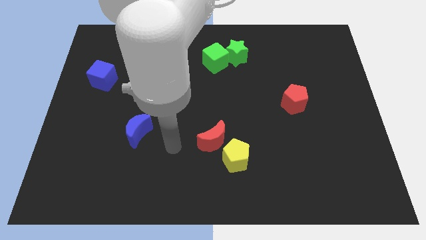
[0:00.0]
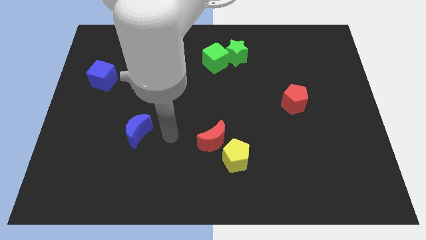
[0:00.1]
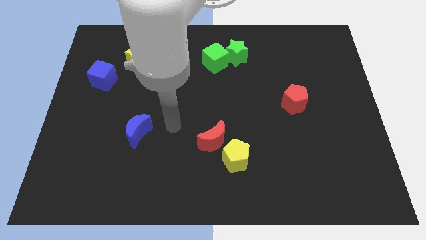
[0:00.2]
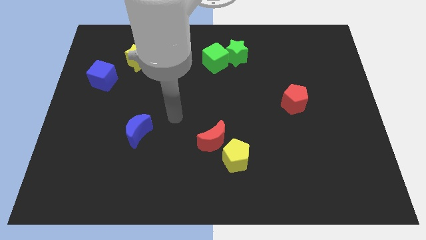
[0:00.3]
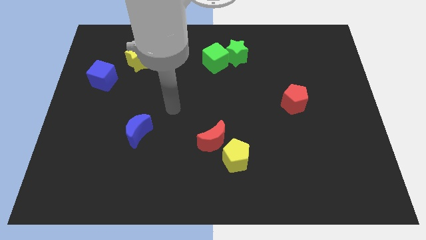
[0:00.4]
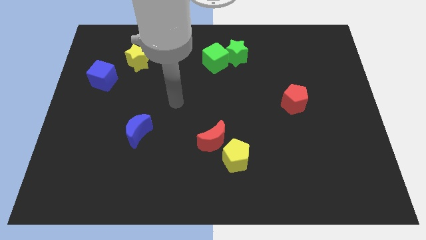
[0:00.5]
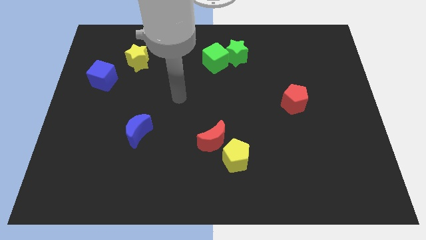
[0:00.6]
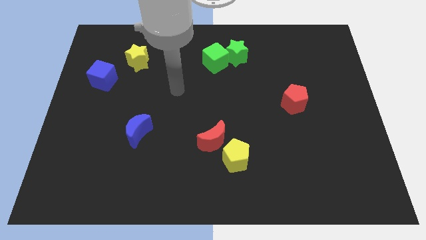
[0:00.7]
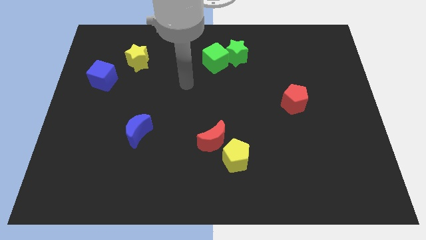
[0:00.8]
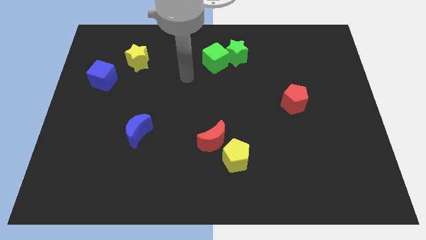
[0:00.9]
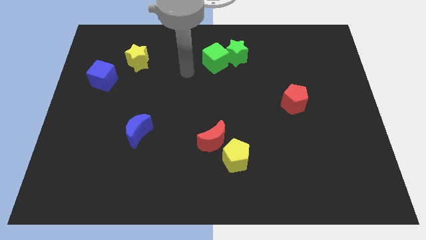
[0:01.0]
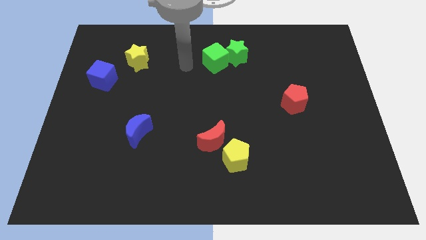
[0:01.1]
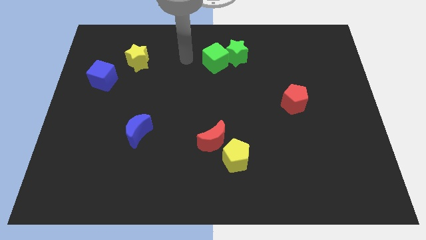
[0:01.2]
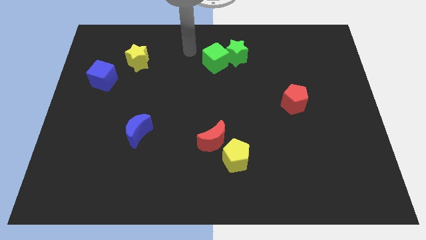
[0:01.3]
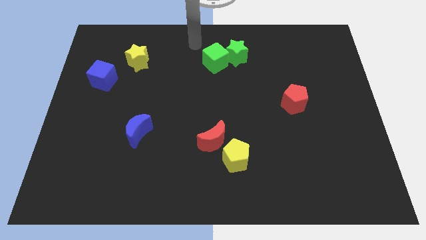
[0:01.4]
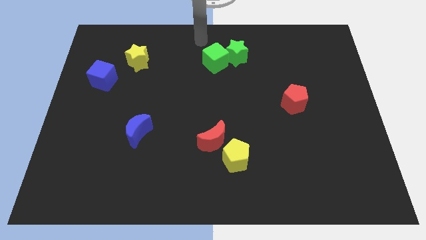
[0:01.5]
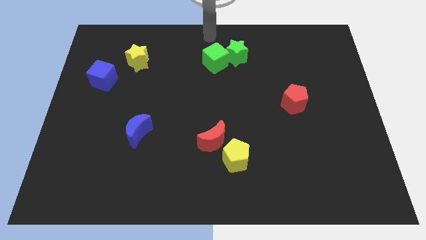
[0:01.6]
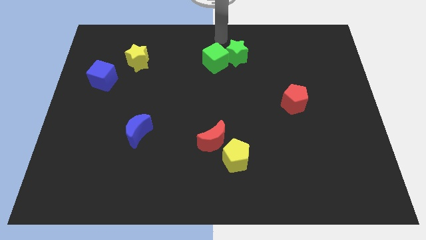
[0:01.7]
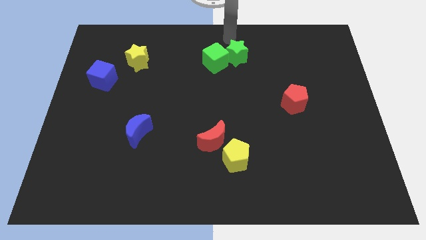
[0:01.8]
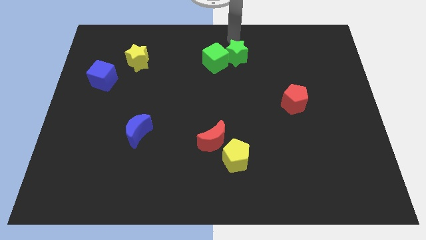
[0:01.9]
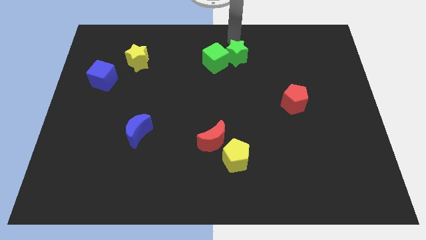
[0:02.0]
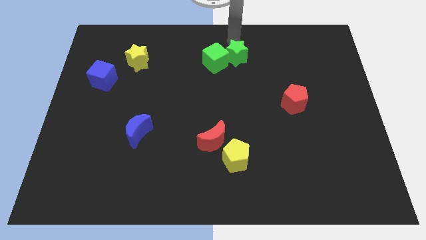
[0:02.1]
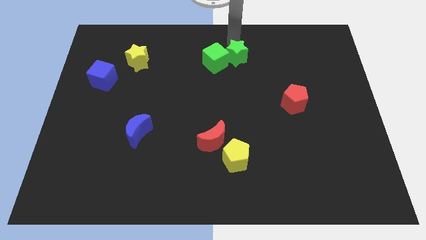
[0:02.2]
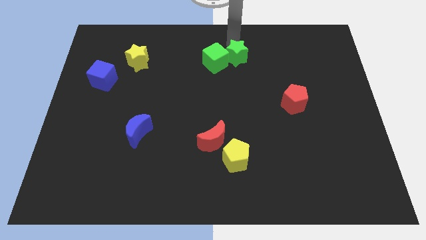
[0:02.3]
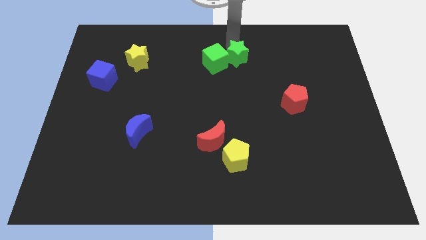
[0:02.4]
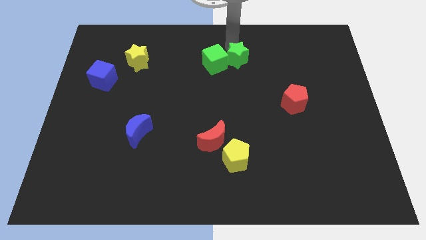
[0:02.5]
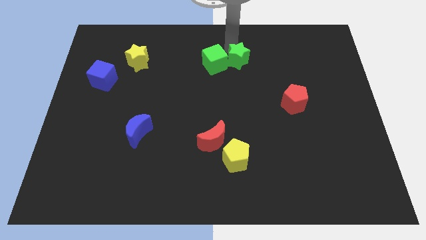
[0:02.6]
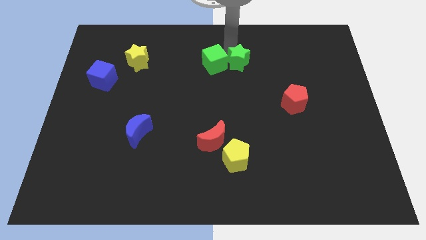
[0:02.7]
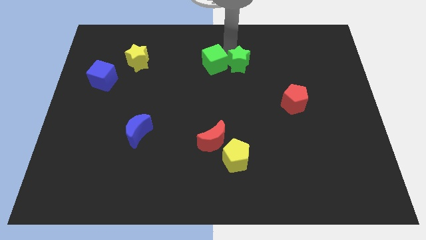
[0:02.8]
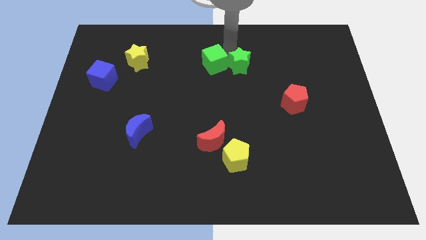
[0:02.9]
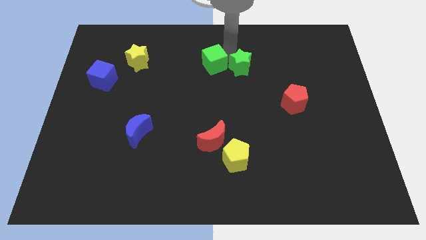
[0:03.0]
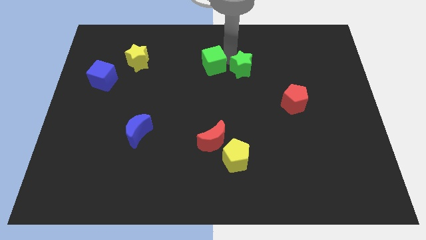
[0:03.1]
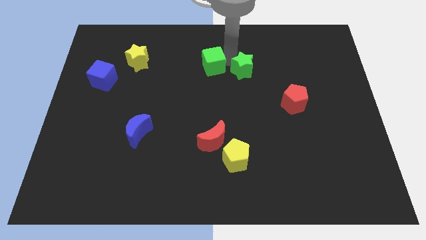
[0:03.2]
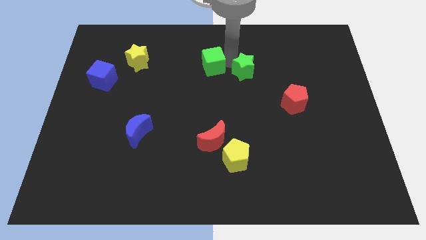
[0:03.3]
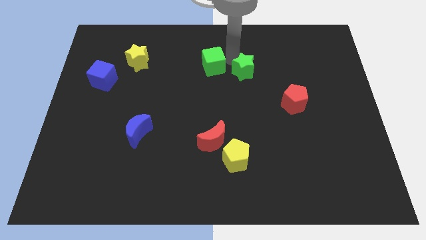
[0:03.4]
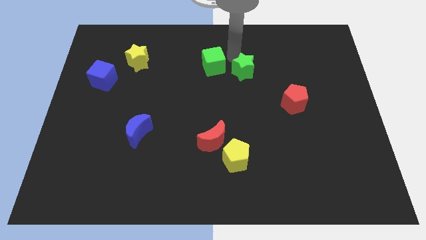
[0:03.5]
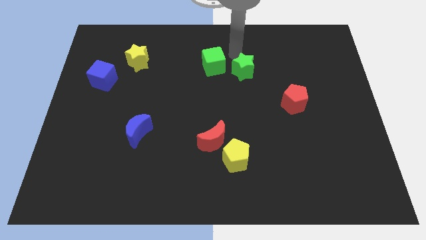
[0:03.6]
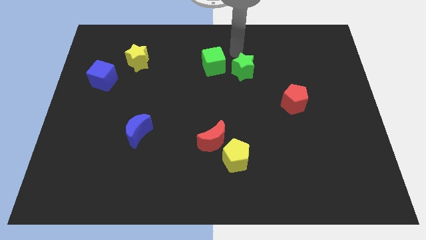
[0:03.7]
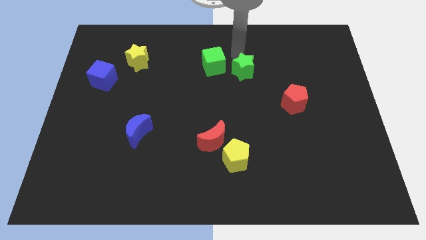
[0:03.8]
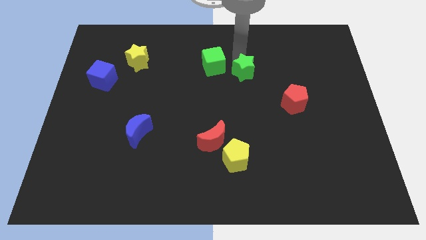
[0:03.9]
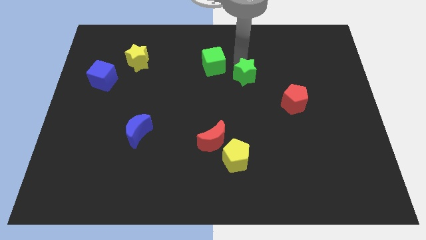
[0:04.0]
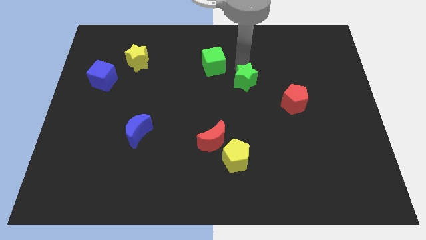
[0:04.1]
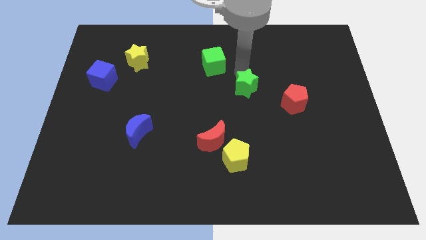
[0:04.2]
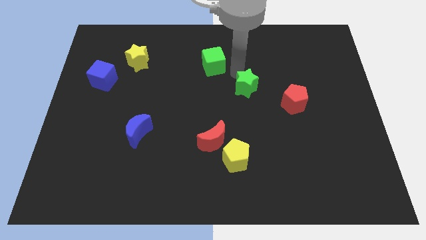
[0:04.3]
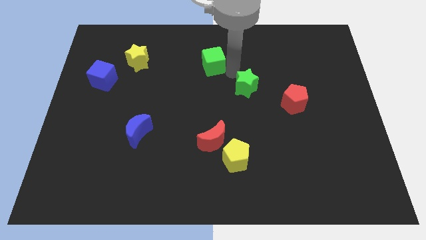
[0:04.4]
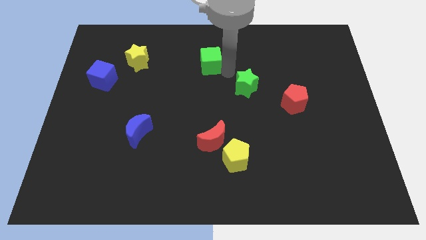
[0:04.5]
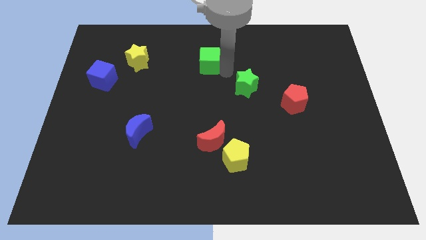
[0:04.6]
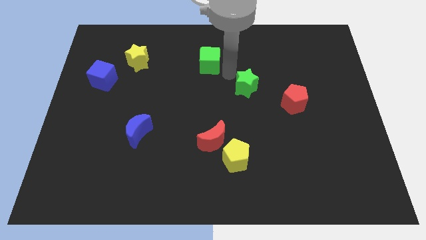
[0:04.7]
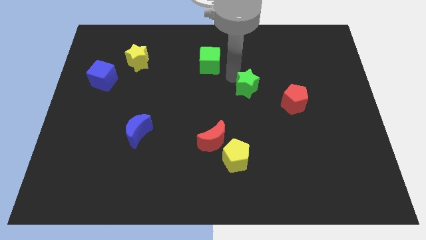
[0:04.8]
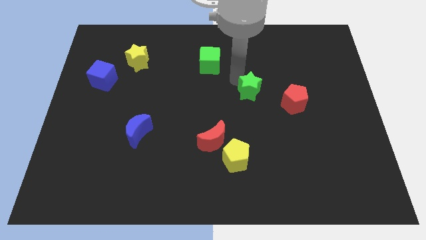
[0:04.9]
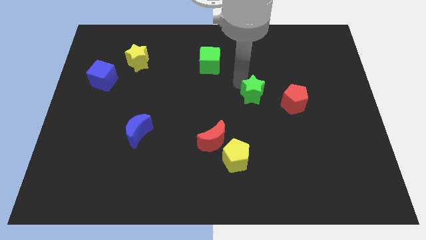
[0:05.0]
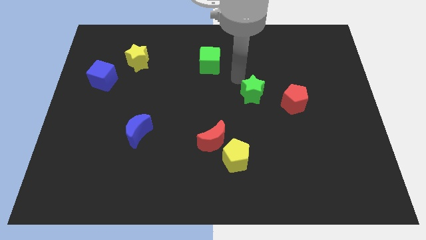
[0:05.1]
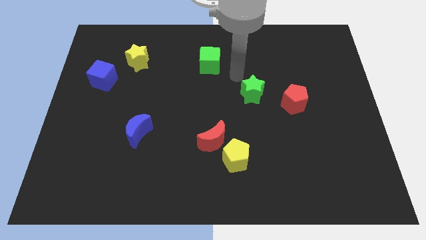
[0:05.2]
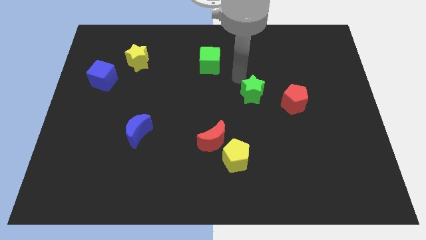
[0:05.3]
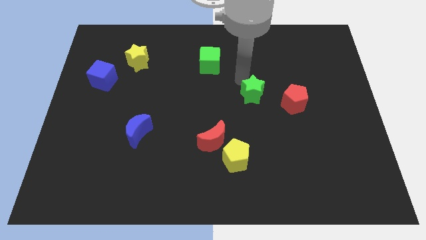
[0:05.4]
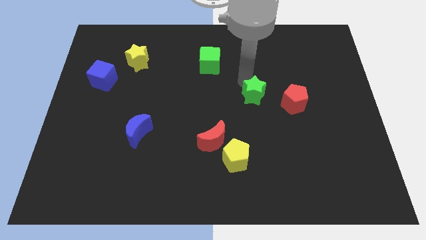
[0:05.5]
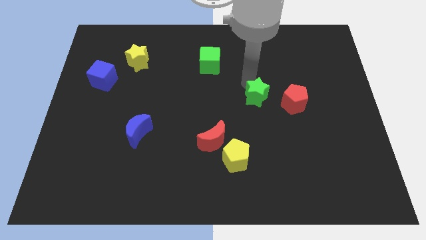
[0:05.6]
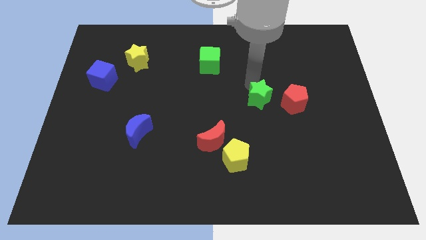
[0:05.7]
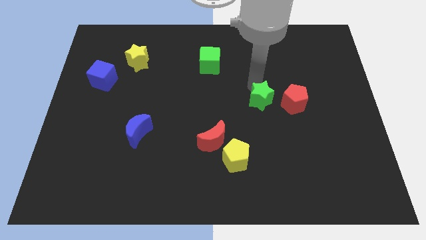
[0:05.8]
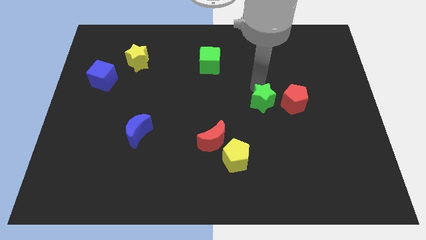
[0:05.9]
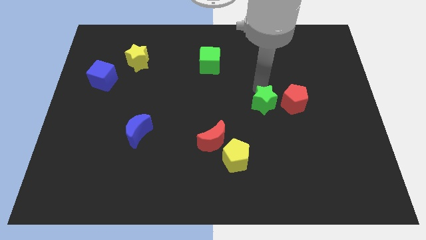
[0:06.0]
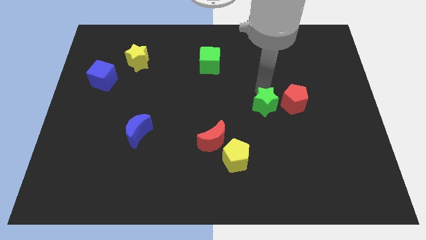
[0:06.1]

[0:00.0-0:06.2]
move the green star to the bottom left side of the red pentagon

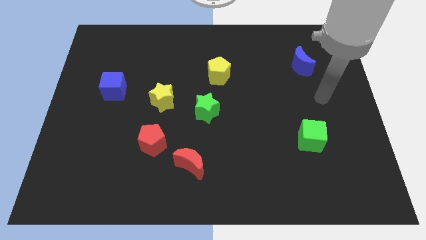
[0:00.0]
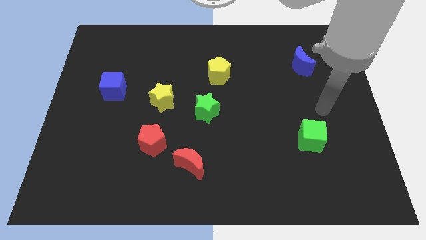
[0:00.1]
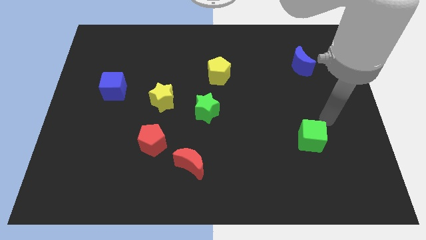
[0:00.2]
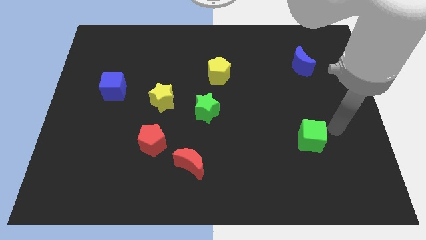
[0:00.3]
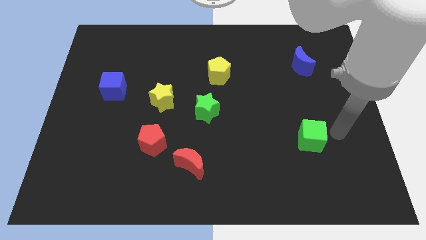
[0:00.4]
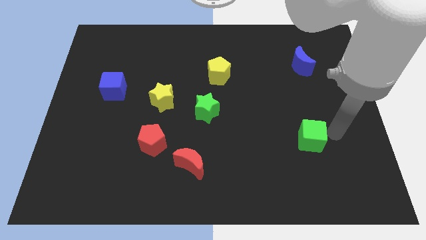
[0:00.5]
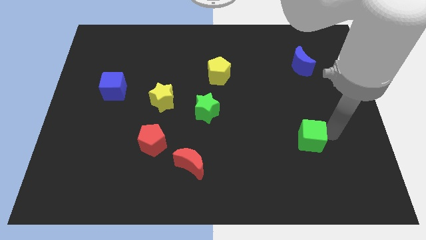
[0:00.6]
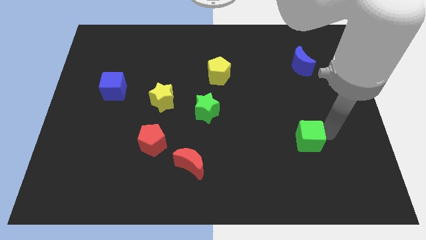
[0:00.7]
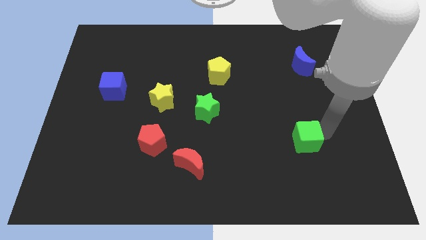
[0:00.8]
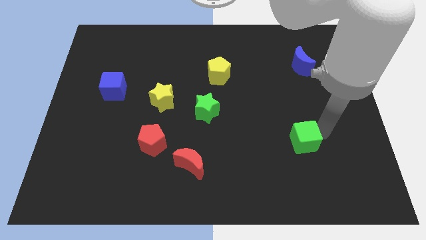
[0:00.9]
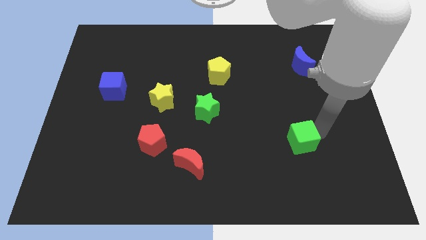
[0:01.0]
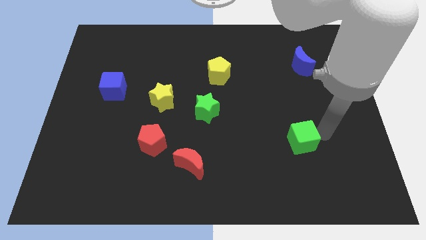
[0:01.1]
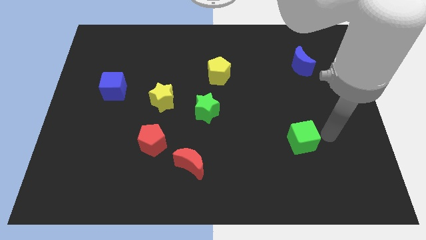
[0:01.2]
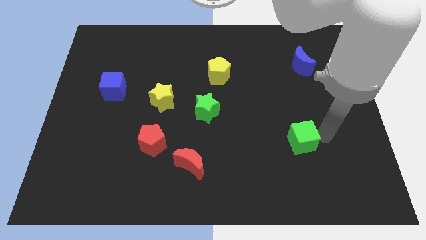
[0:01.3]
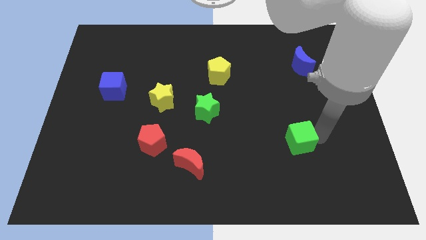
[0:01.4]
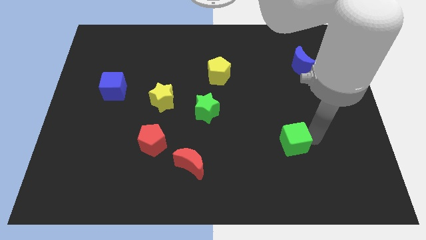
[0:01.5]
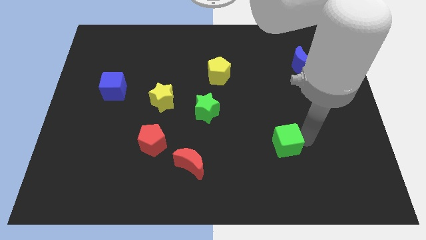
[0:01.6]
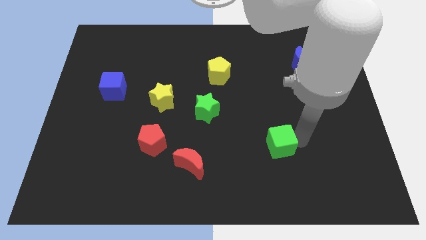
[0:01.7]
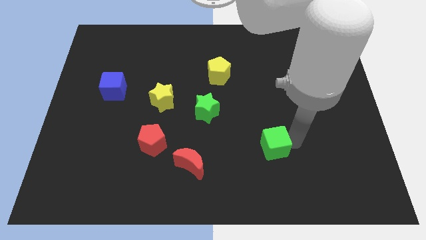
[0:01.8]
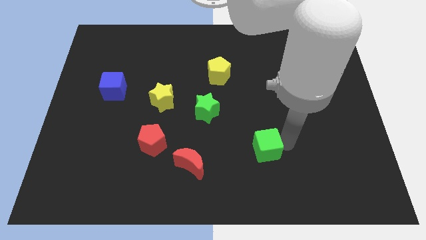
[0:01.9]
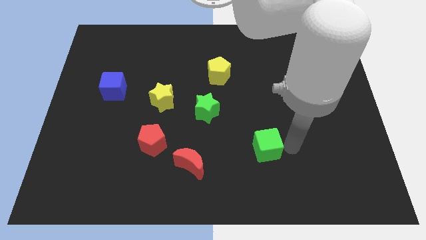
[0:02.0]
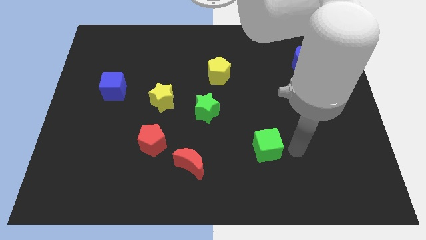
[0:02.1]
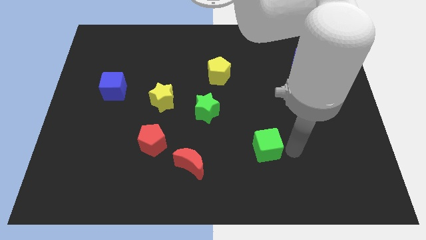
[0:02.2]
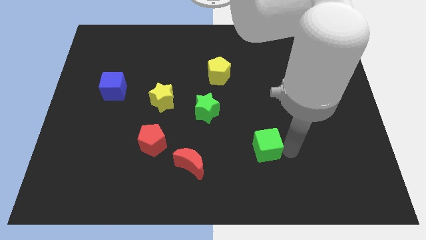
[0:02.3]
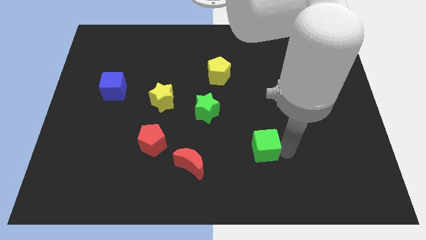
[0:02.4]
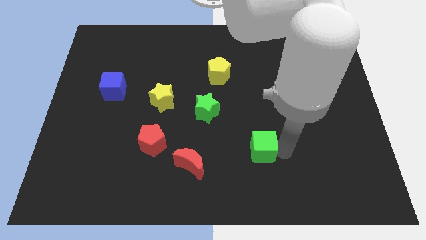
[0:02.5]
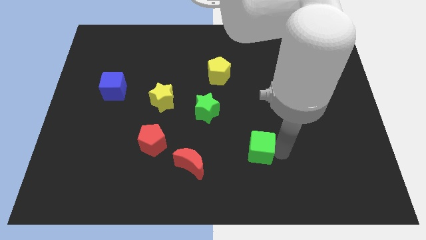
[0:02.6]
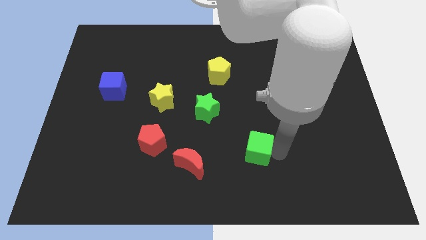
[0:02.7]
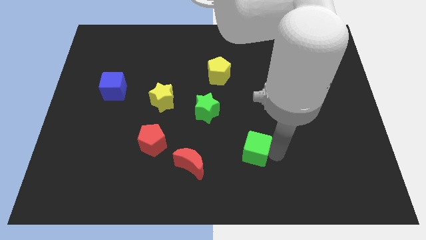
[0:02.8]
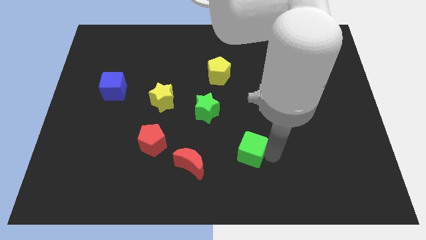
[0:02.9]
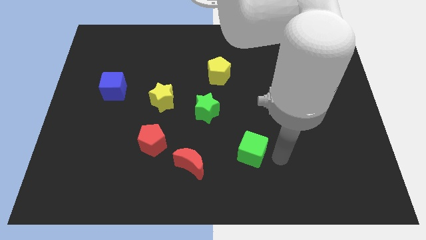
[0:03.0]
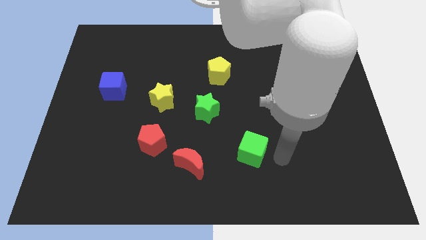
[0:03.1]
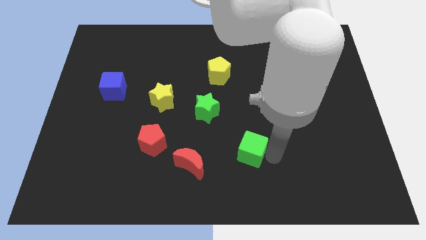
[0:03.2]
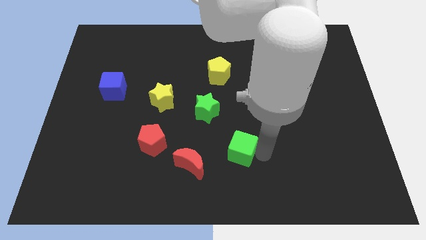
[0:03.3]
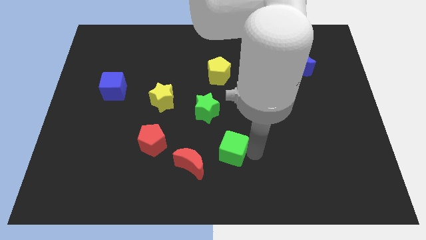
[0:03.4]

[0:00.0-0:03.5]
push the green cube to the top right side of the red moon
